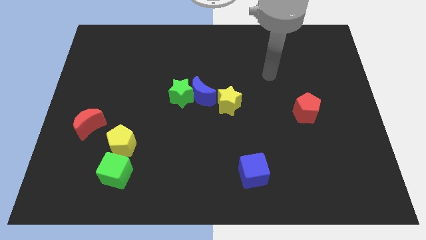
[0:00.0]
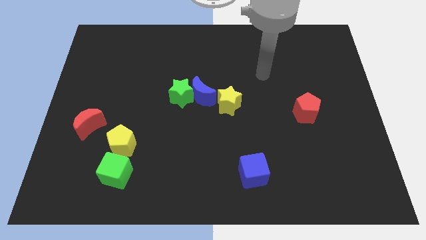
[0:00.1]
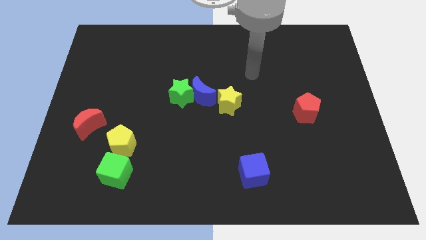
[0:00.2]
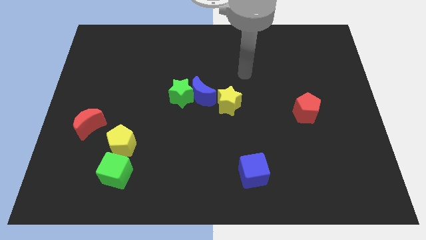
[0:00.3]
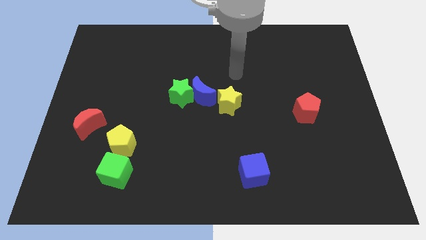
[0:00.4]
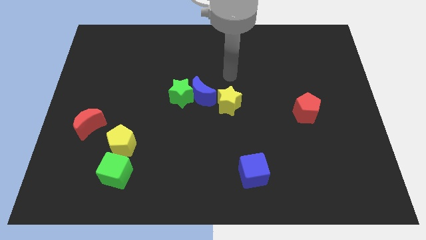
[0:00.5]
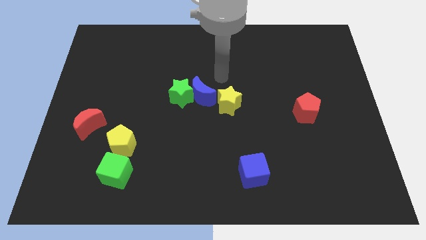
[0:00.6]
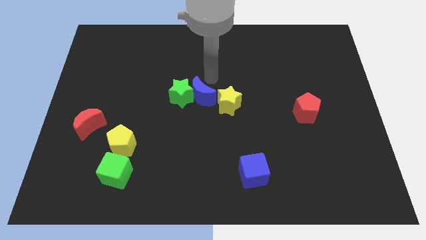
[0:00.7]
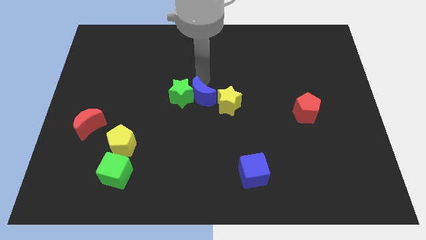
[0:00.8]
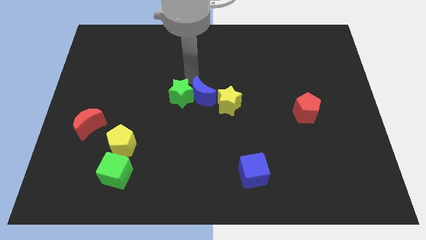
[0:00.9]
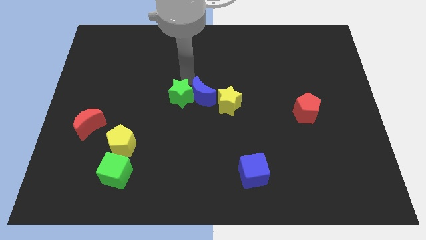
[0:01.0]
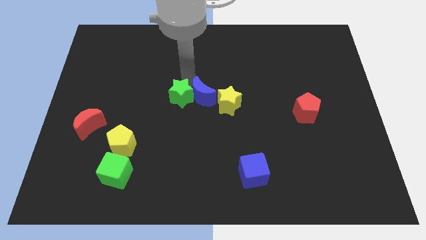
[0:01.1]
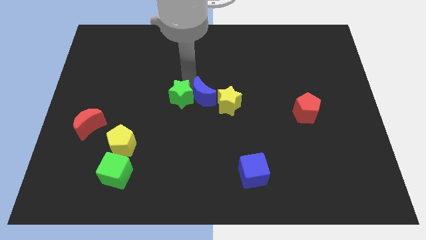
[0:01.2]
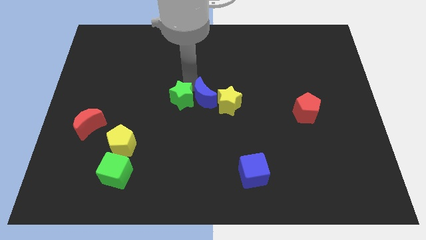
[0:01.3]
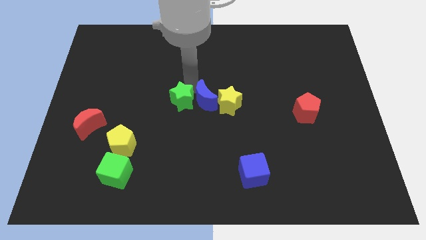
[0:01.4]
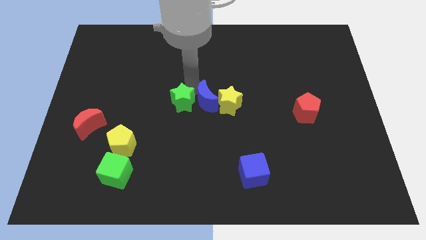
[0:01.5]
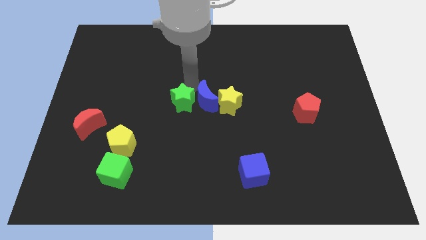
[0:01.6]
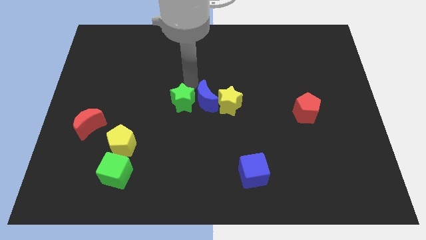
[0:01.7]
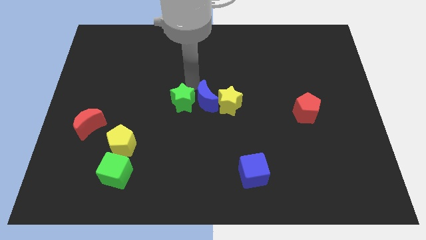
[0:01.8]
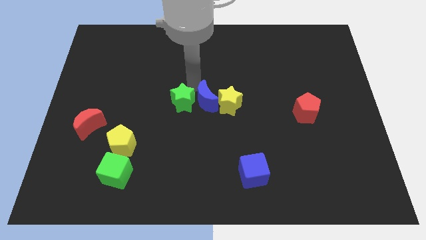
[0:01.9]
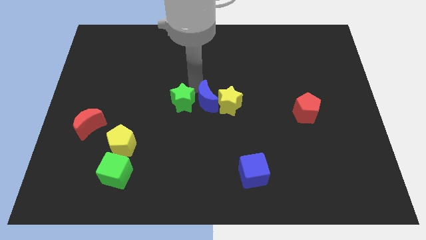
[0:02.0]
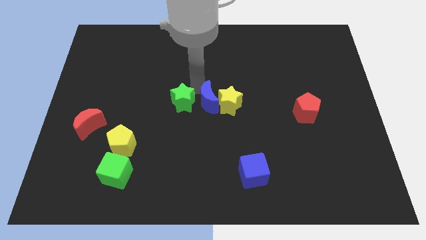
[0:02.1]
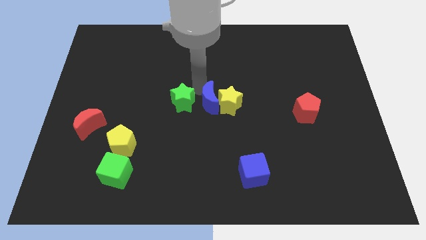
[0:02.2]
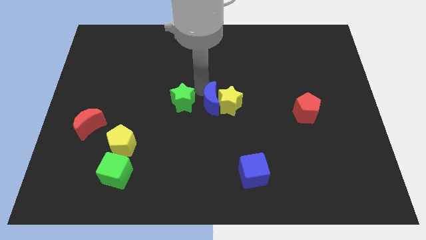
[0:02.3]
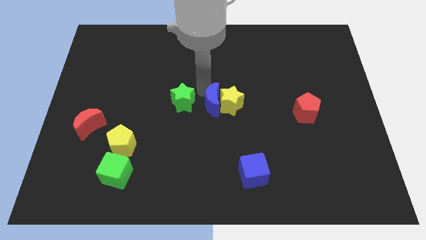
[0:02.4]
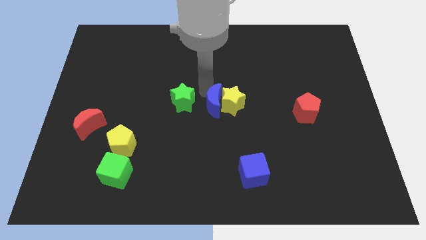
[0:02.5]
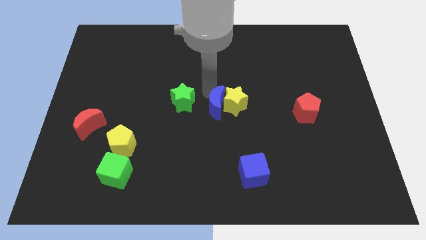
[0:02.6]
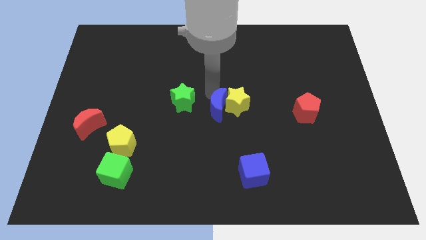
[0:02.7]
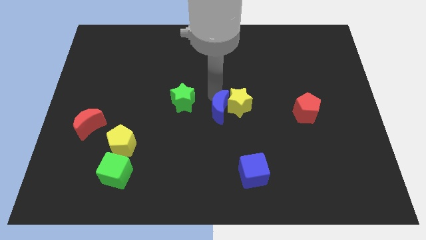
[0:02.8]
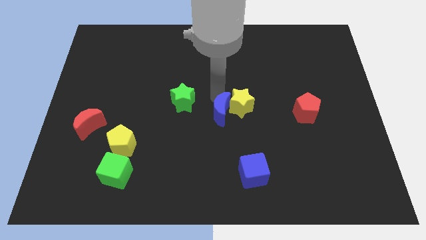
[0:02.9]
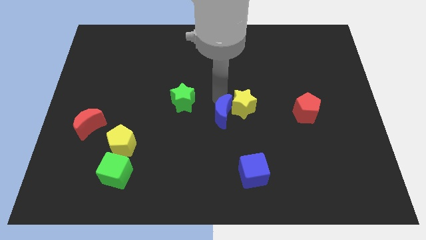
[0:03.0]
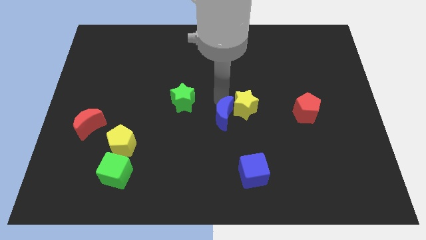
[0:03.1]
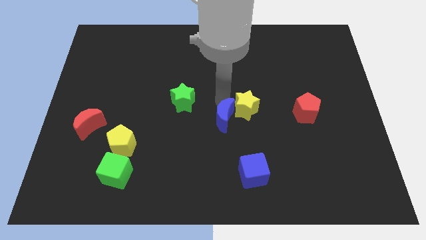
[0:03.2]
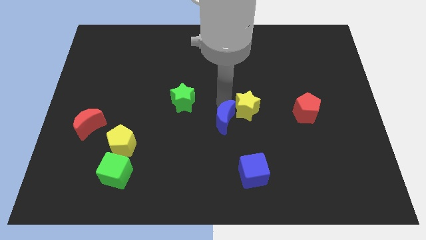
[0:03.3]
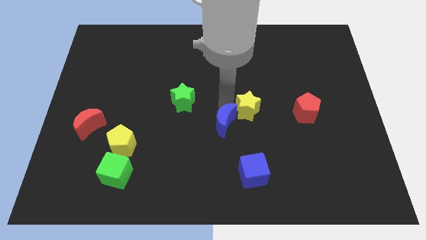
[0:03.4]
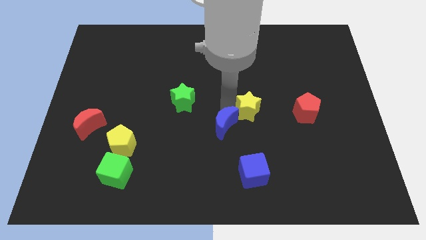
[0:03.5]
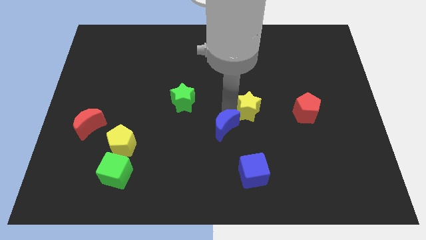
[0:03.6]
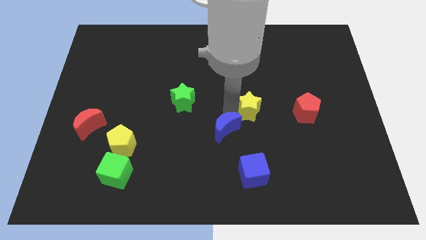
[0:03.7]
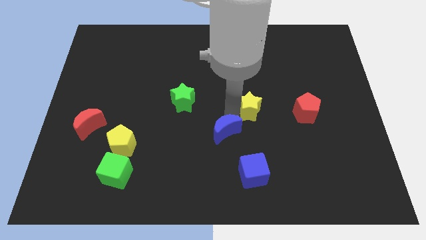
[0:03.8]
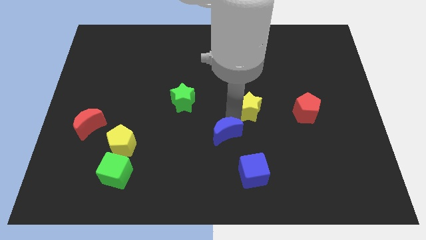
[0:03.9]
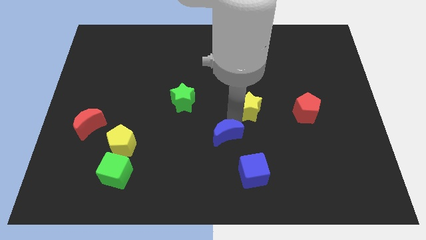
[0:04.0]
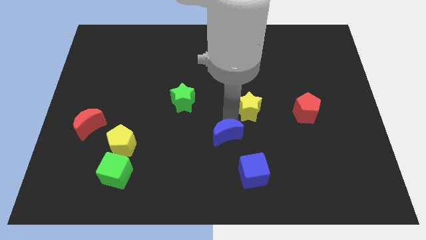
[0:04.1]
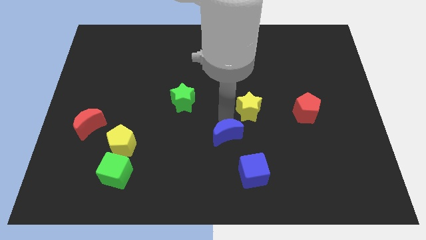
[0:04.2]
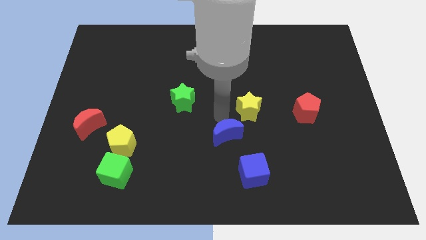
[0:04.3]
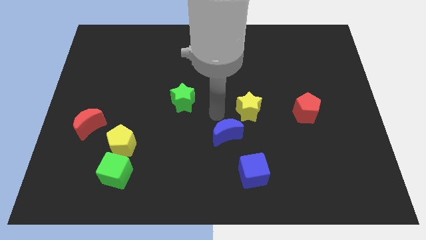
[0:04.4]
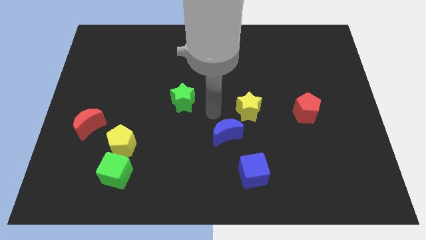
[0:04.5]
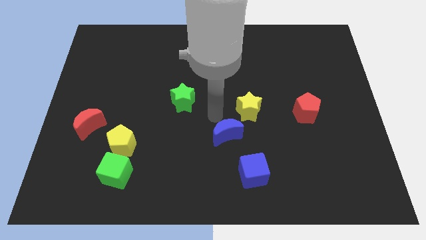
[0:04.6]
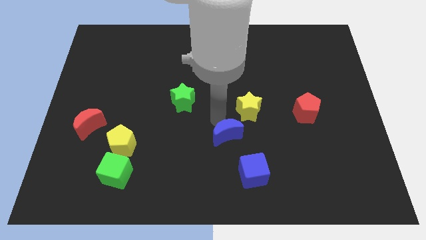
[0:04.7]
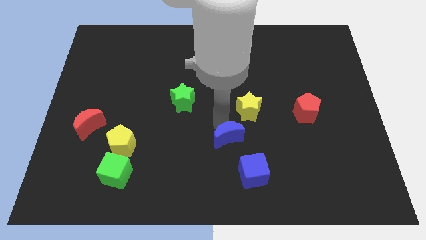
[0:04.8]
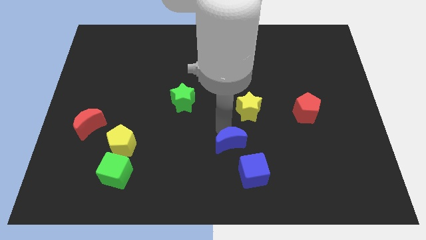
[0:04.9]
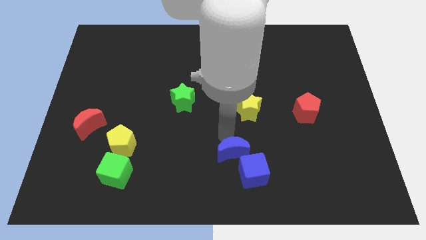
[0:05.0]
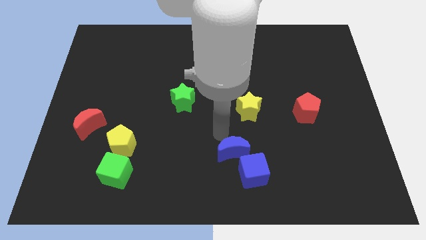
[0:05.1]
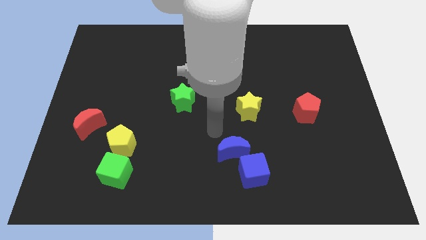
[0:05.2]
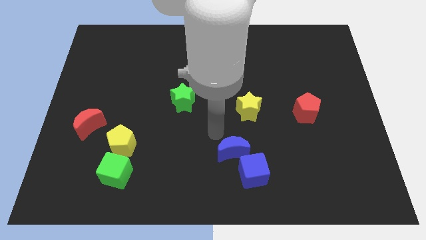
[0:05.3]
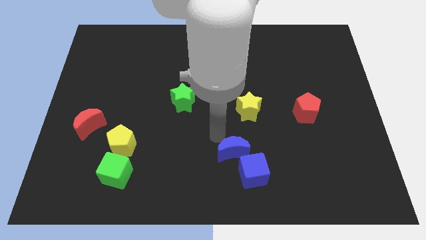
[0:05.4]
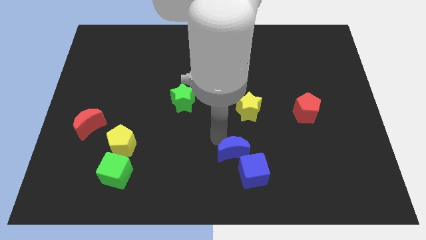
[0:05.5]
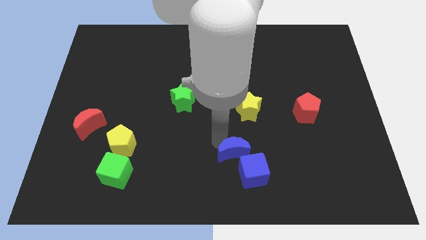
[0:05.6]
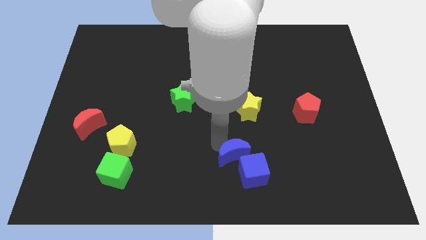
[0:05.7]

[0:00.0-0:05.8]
push the blue moon close to the blue cube

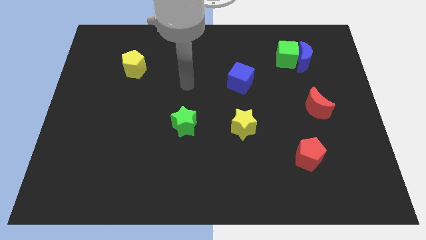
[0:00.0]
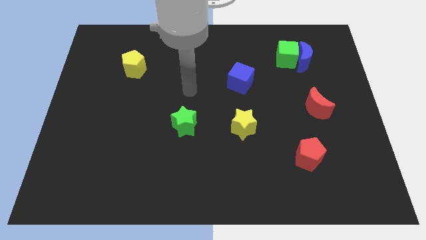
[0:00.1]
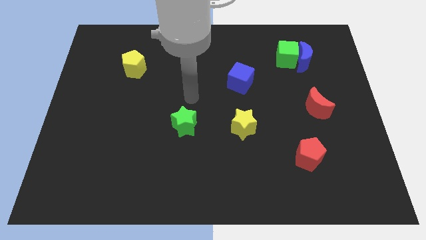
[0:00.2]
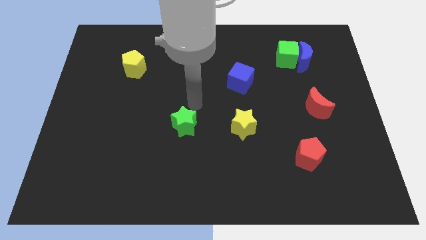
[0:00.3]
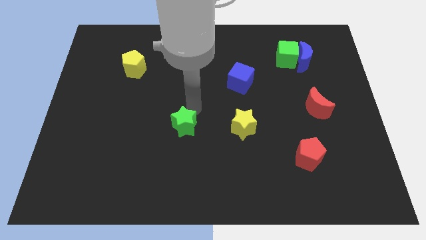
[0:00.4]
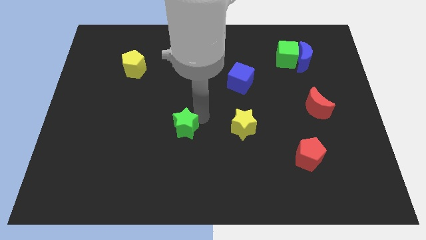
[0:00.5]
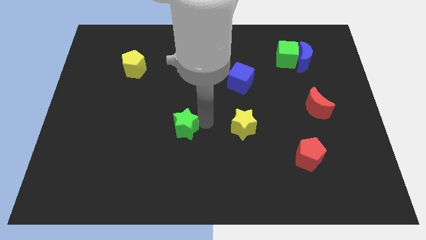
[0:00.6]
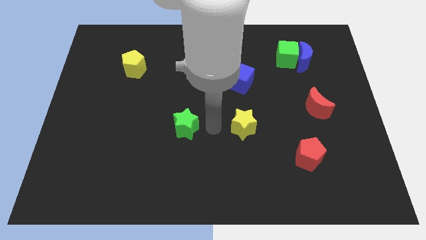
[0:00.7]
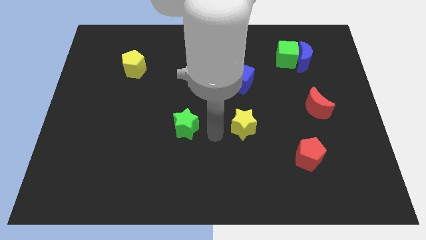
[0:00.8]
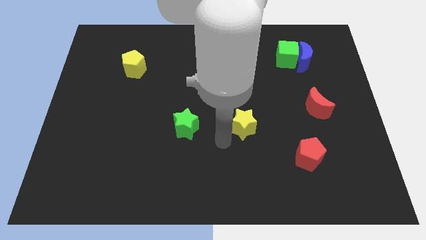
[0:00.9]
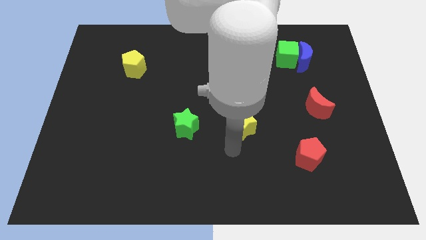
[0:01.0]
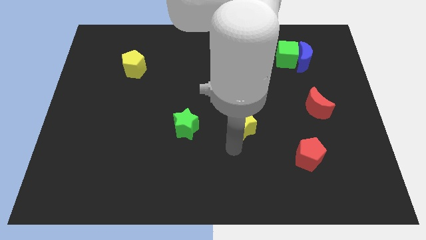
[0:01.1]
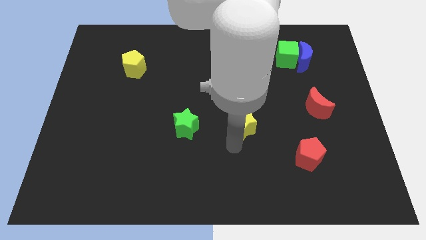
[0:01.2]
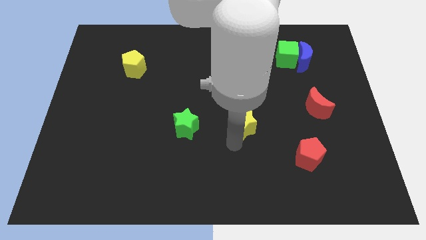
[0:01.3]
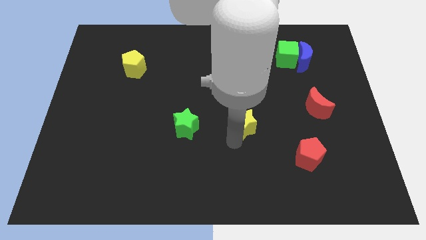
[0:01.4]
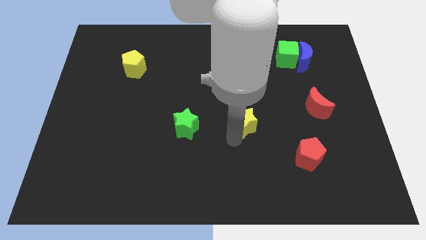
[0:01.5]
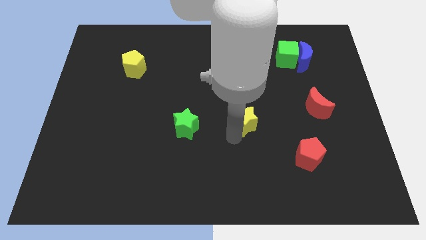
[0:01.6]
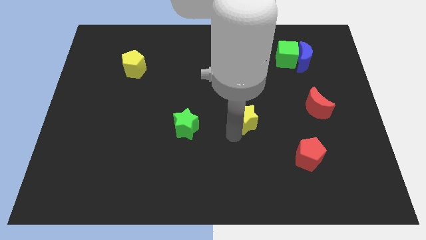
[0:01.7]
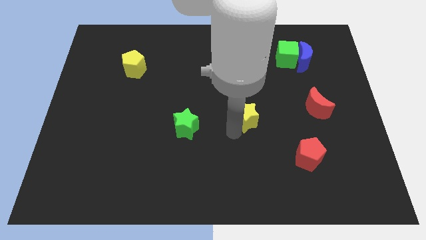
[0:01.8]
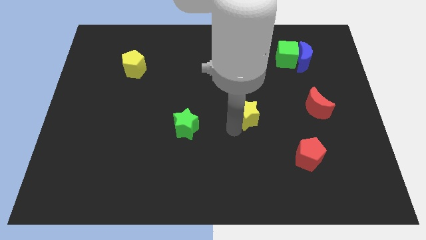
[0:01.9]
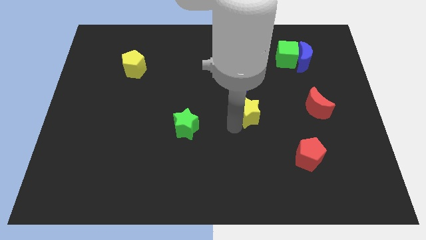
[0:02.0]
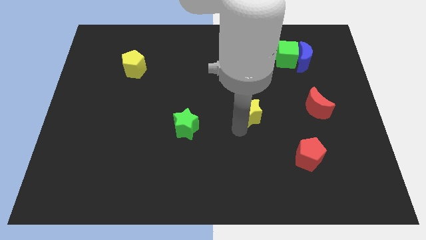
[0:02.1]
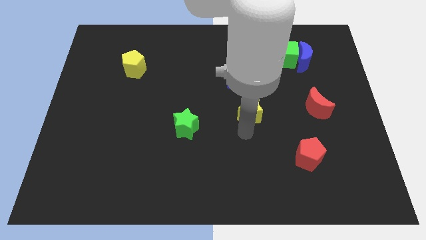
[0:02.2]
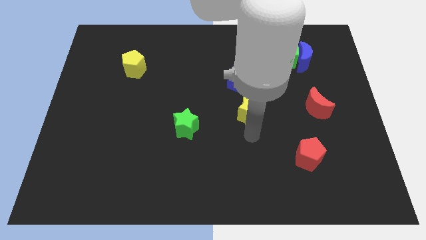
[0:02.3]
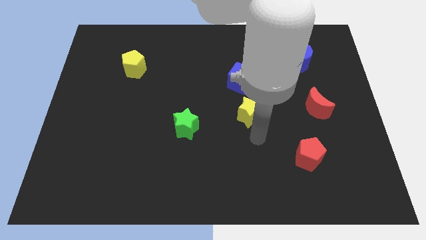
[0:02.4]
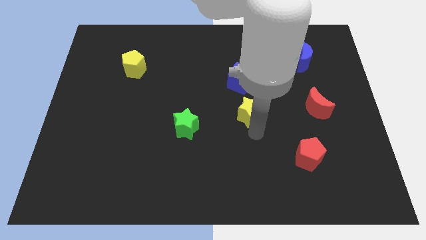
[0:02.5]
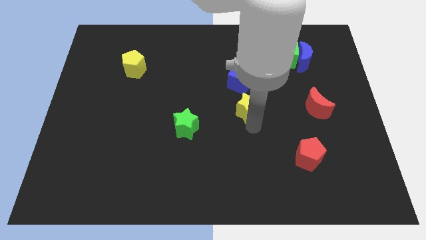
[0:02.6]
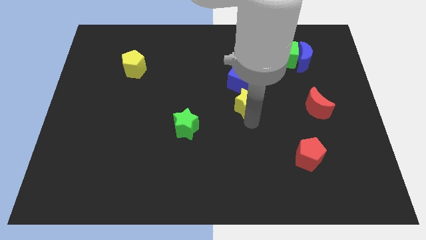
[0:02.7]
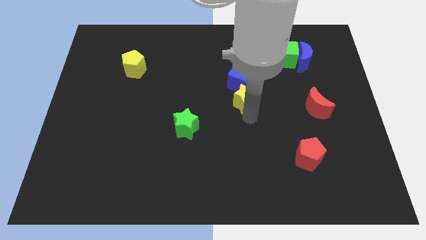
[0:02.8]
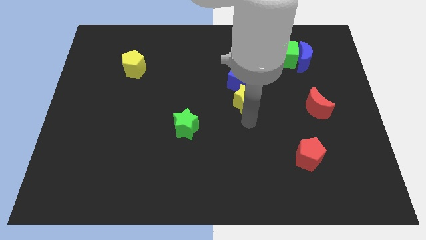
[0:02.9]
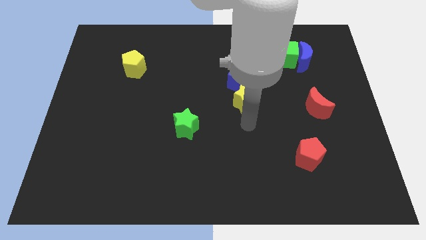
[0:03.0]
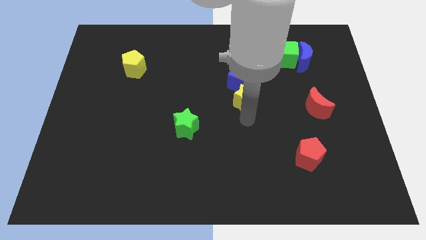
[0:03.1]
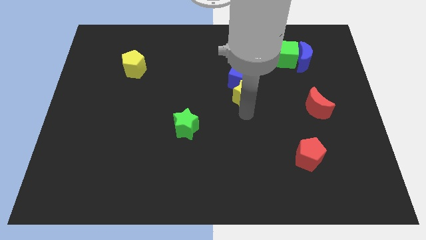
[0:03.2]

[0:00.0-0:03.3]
slide the yellow star next to the blue cube
